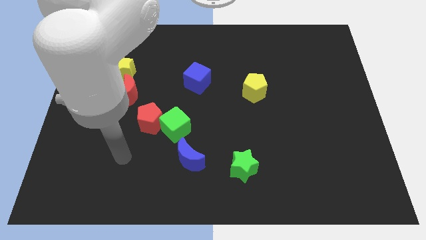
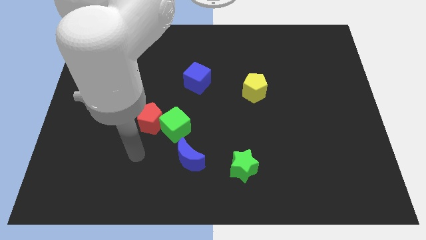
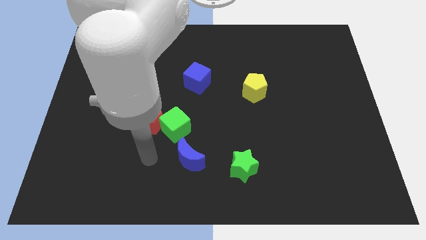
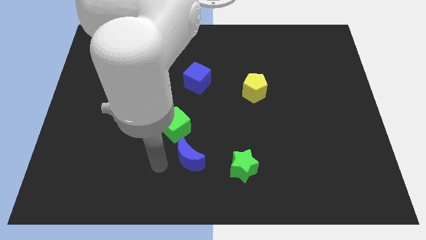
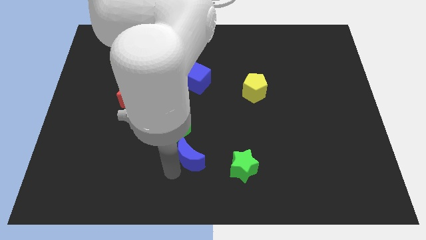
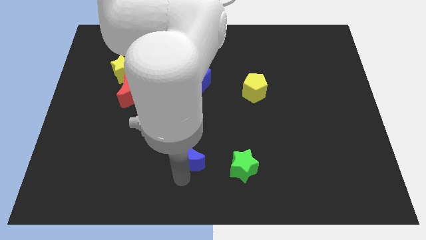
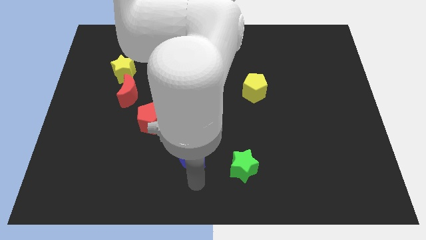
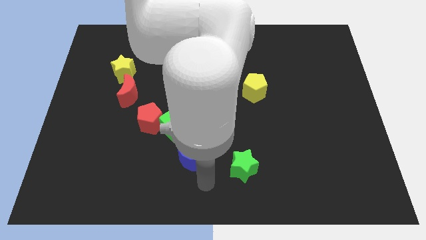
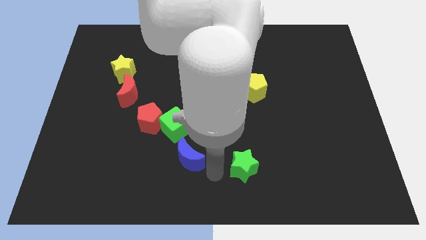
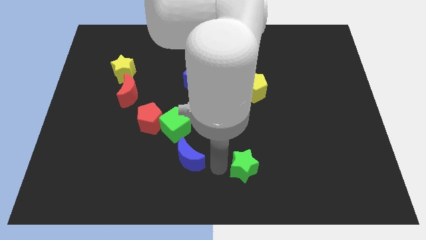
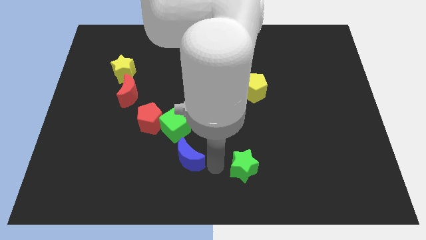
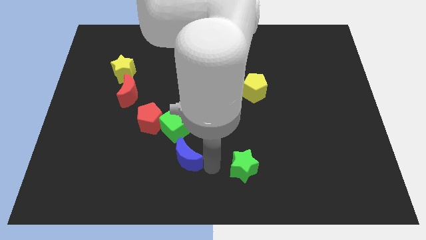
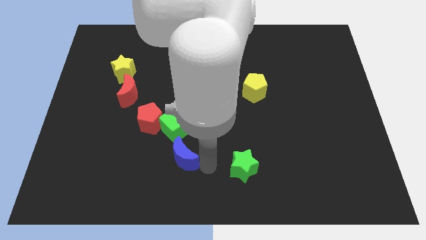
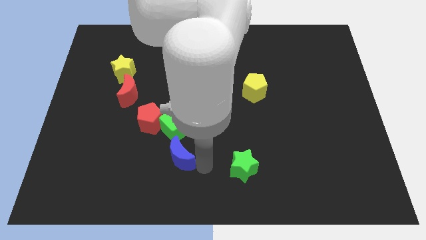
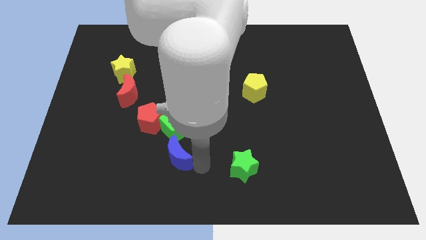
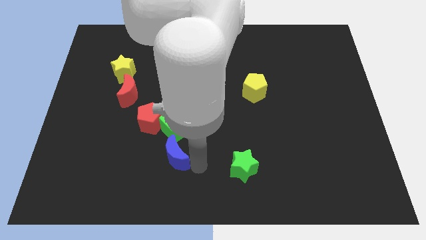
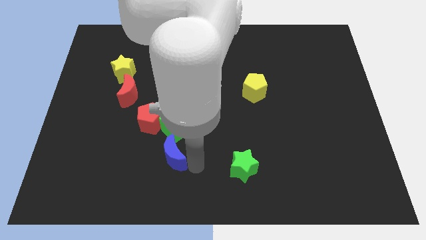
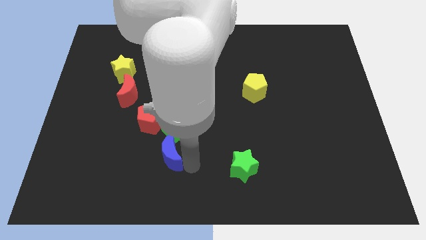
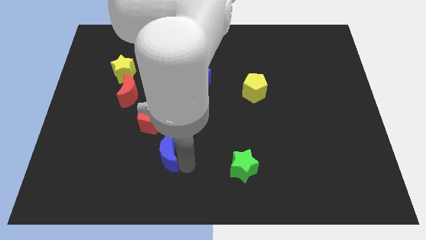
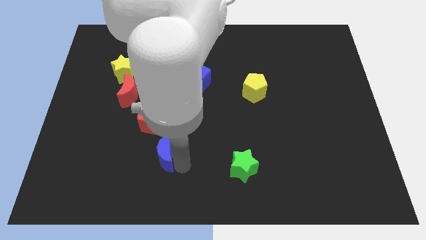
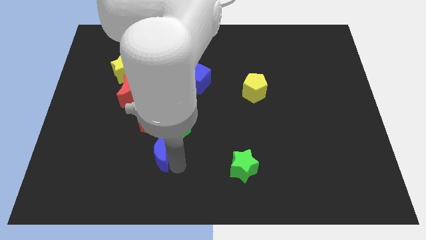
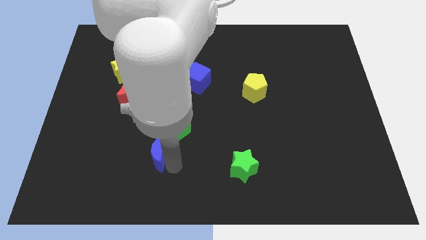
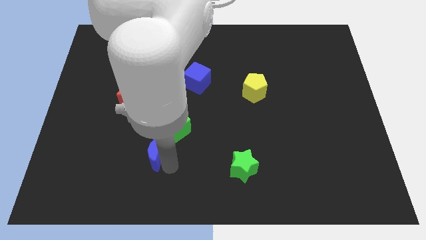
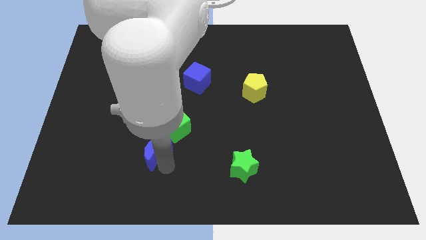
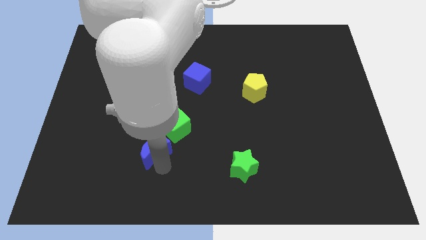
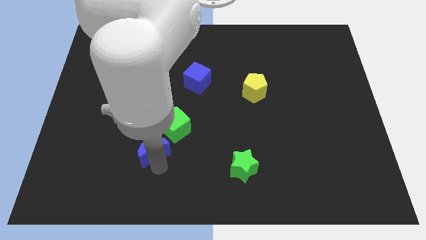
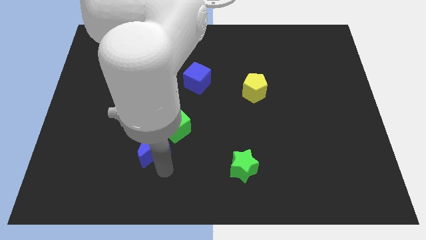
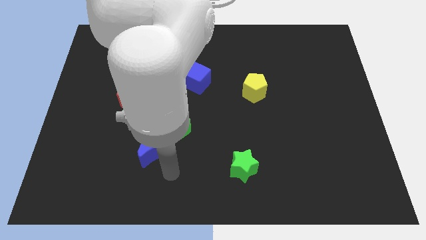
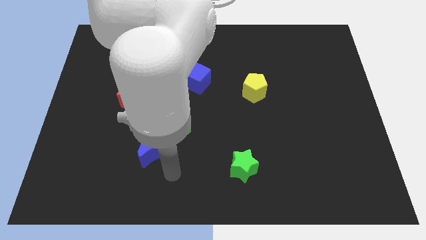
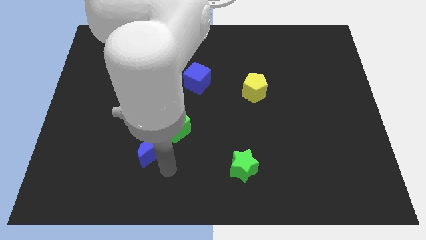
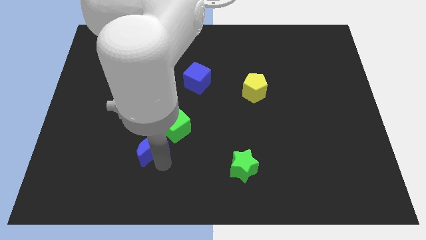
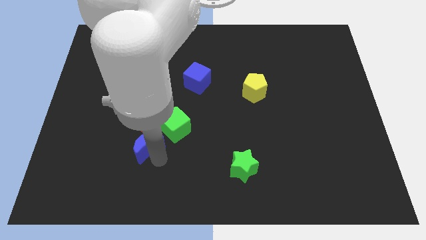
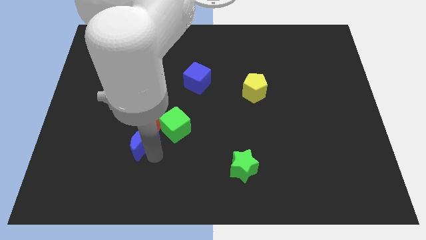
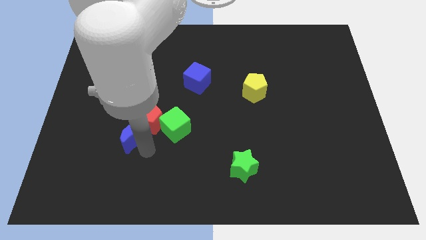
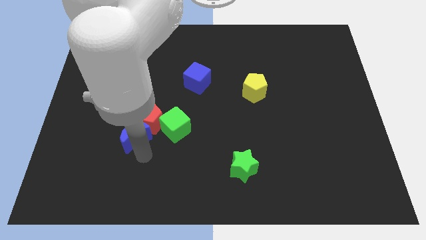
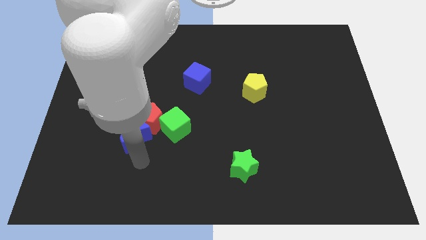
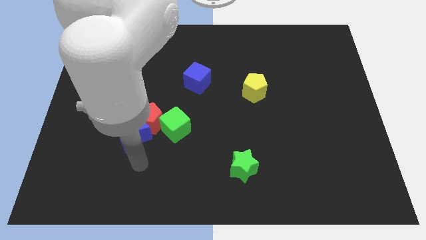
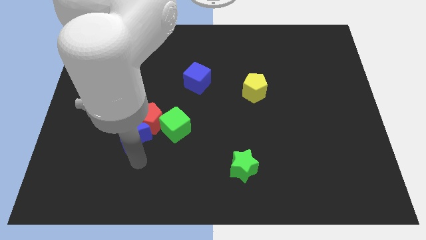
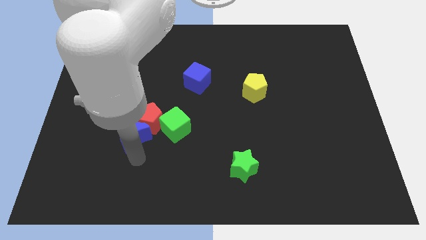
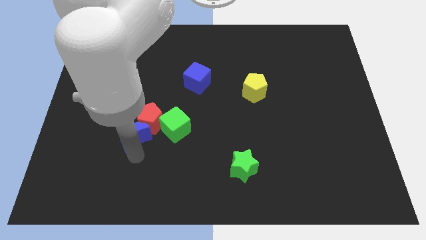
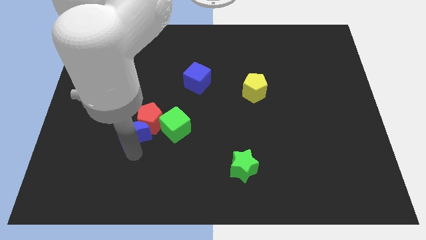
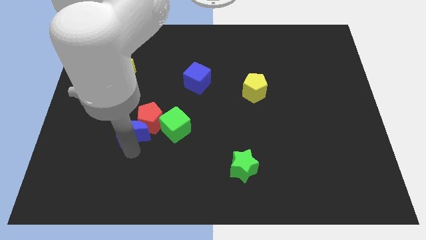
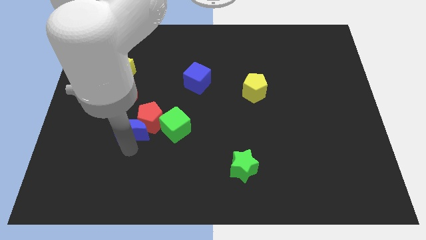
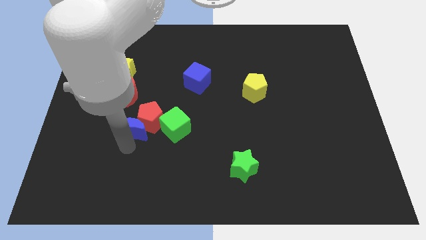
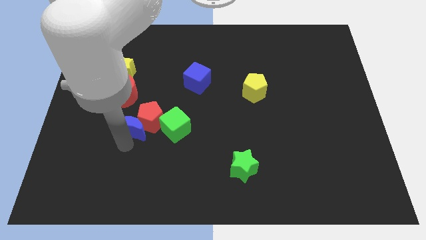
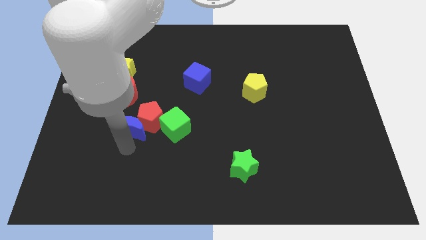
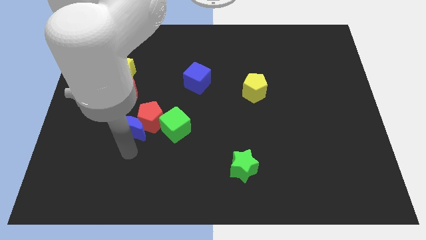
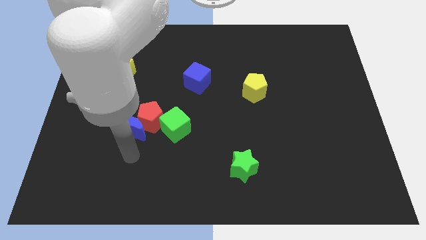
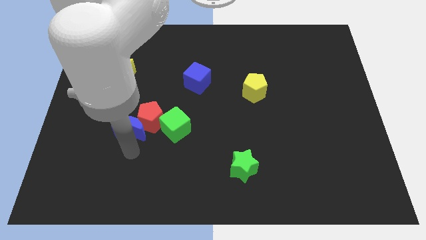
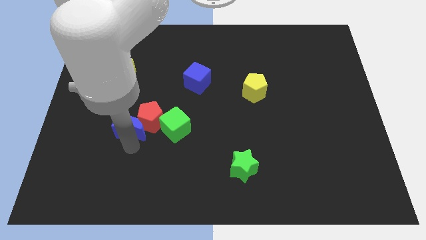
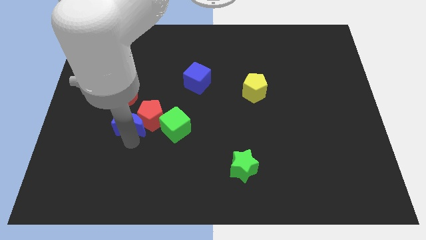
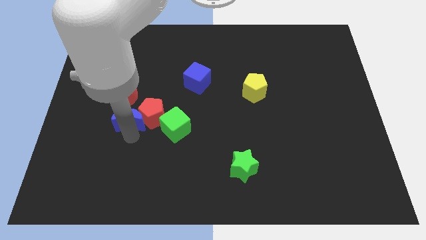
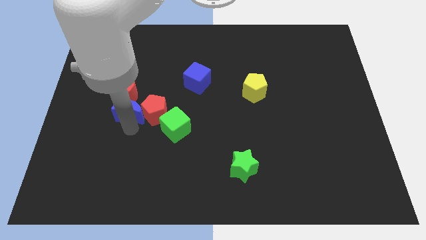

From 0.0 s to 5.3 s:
put the blue moon next to the red moon

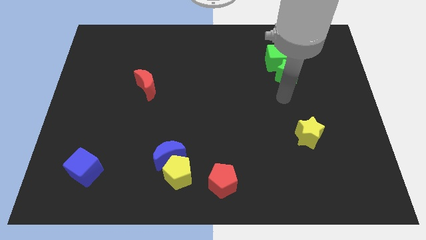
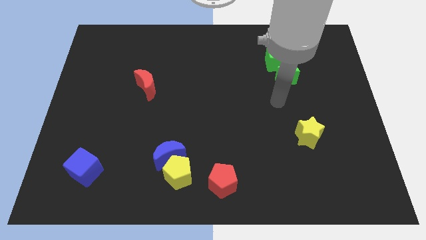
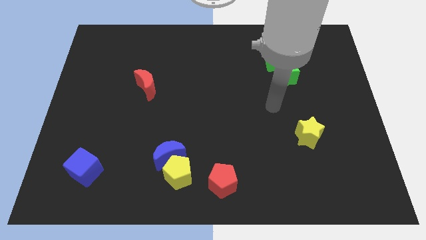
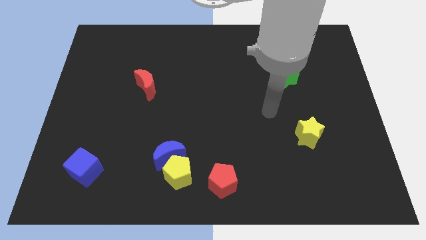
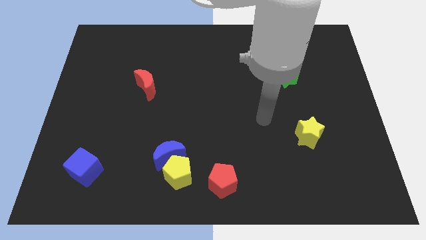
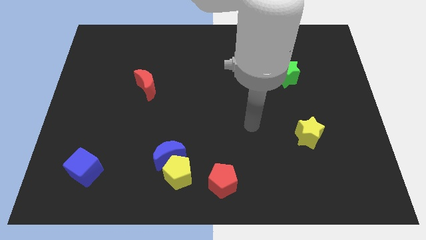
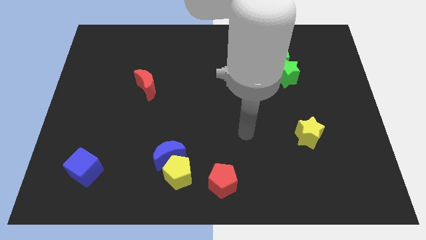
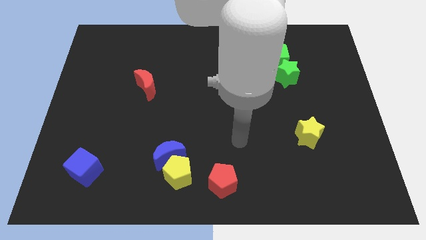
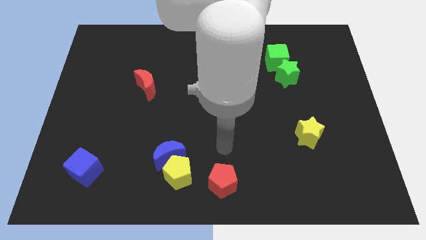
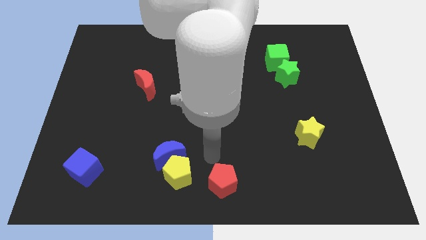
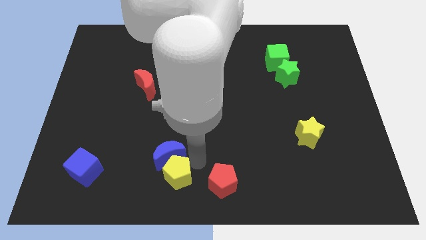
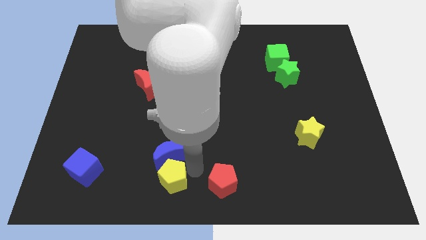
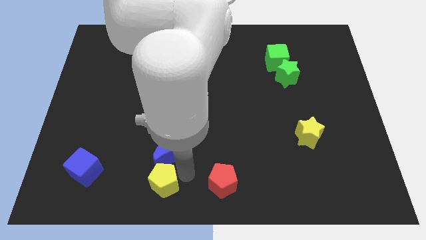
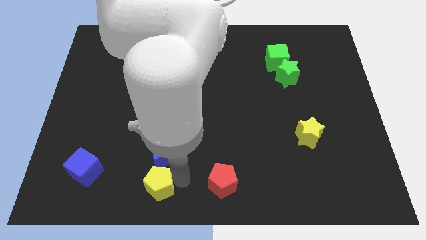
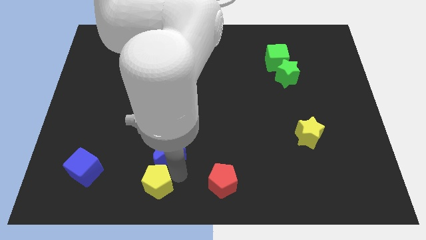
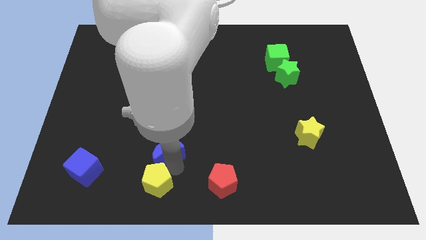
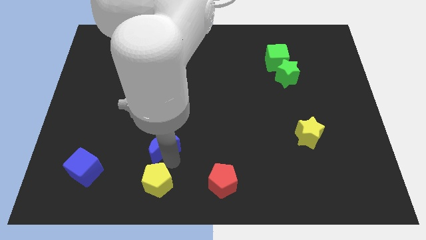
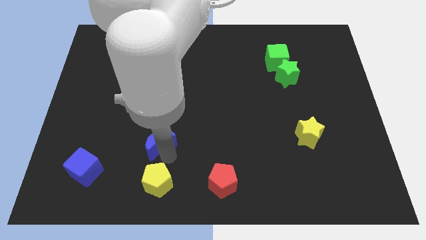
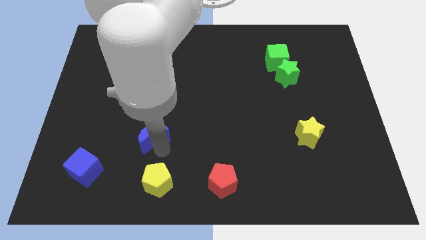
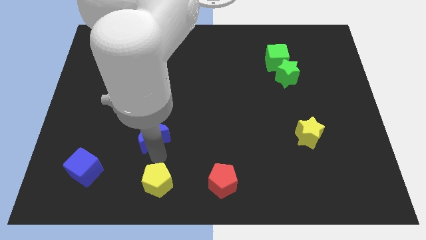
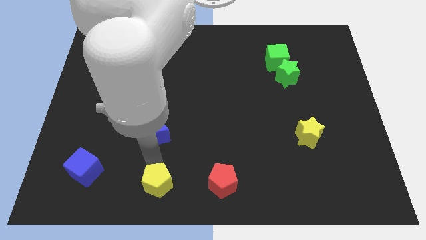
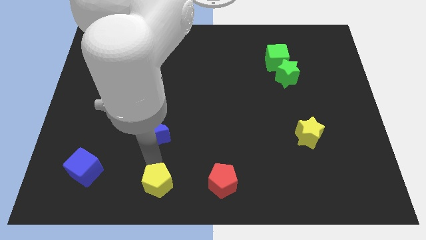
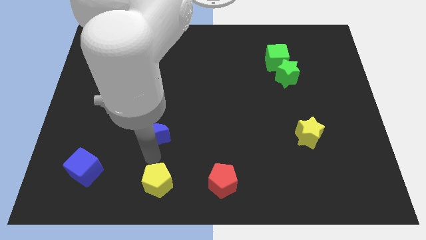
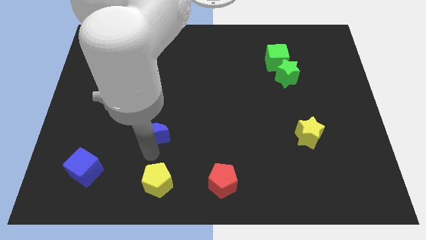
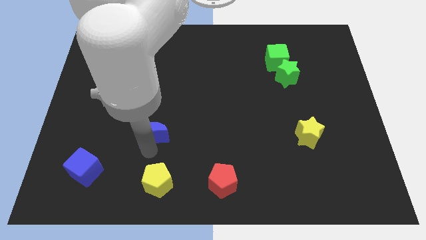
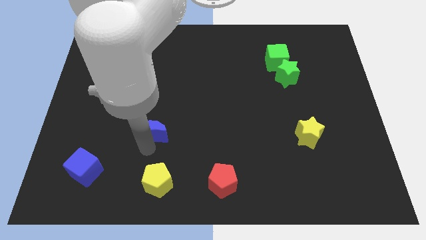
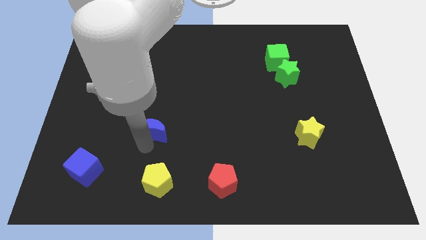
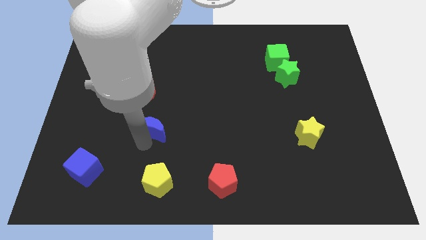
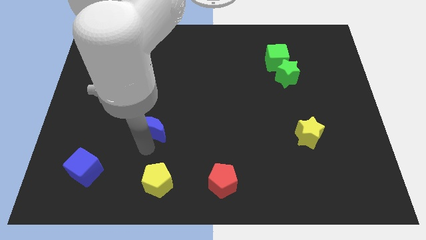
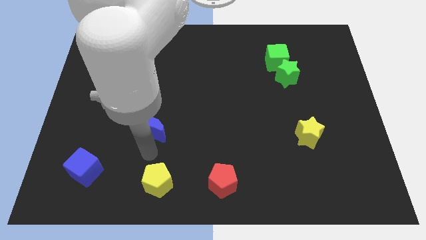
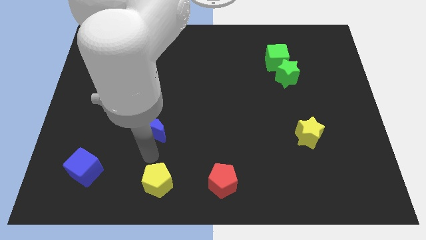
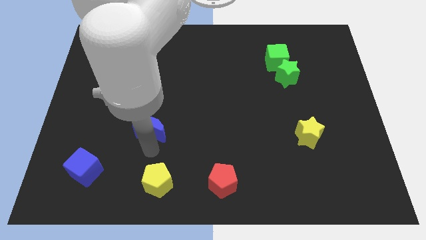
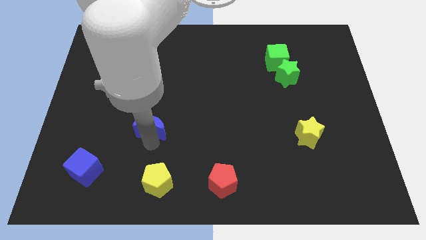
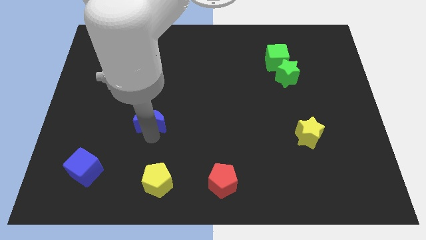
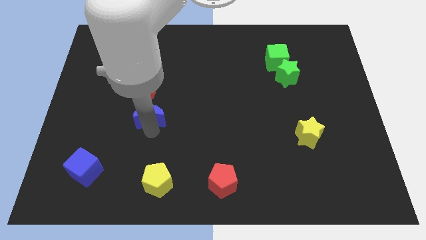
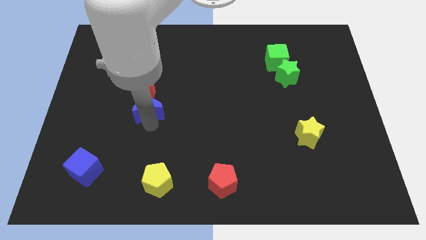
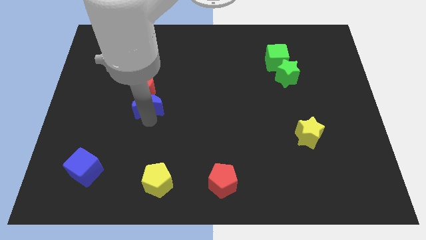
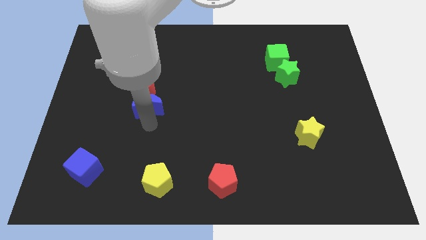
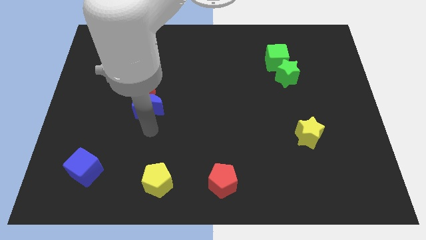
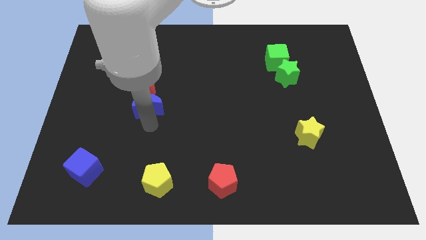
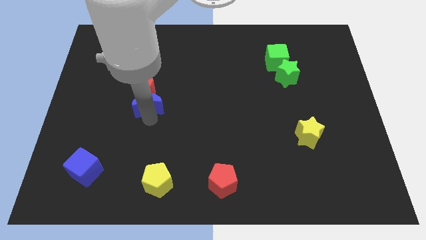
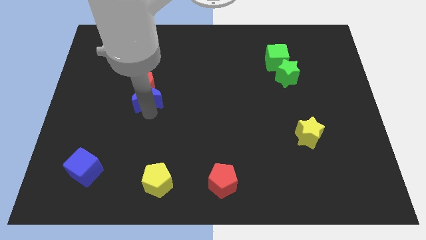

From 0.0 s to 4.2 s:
move the blue moon towards the red moon
